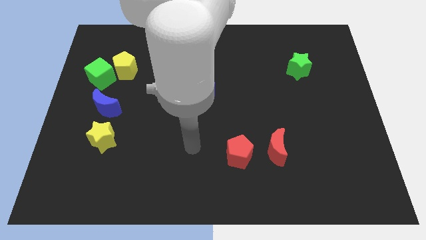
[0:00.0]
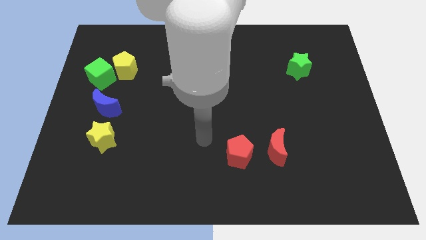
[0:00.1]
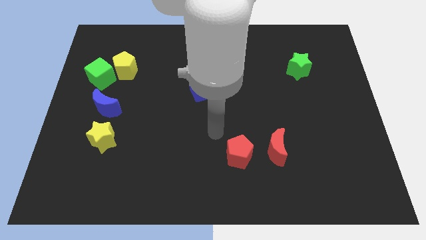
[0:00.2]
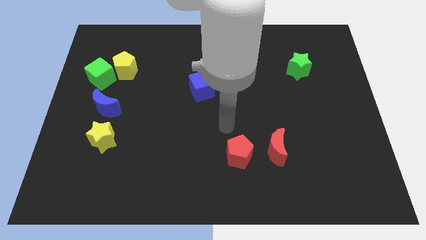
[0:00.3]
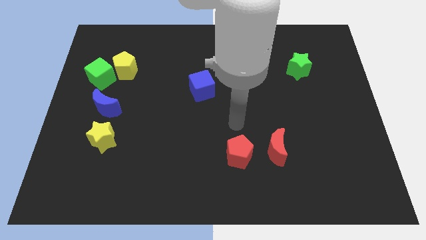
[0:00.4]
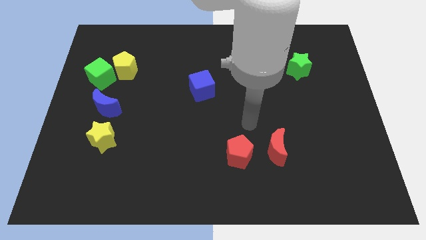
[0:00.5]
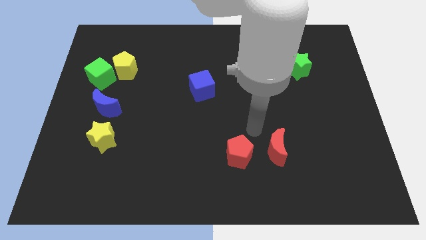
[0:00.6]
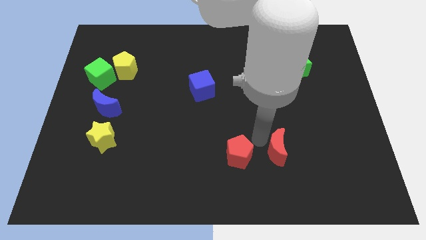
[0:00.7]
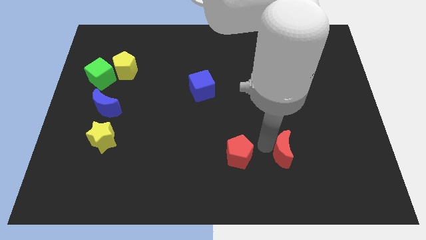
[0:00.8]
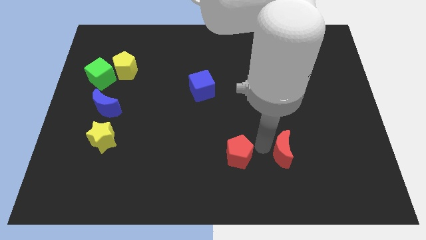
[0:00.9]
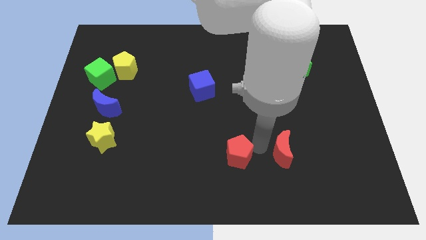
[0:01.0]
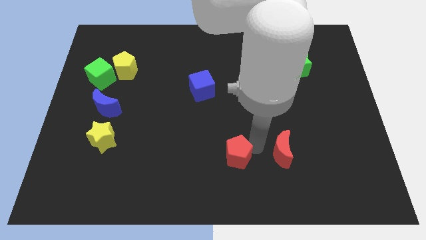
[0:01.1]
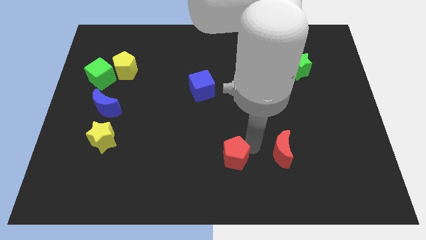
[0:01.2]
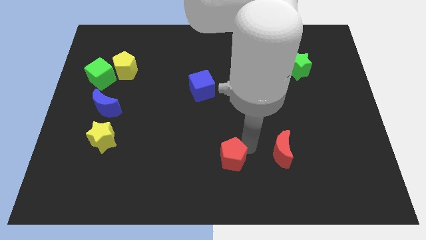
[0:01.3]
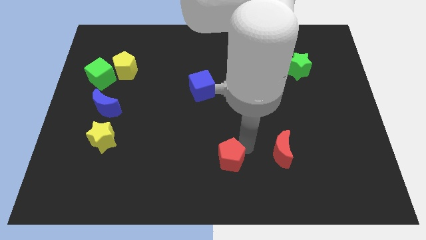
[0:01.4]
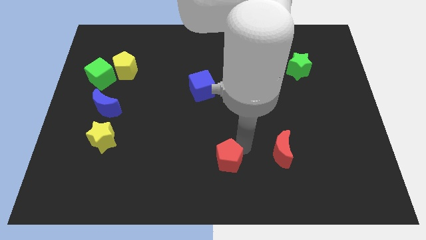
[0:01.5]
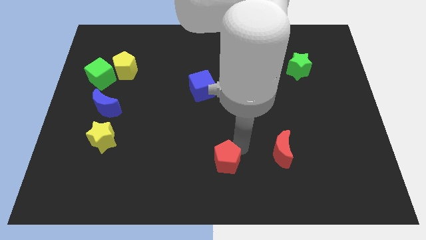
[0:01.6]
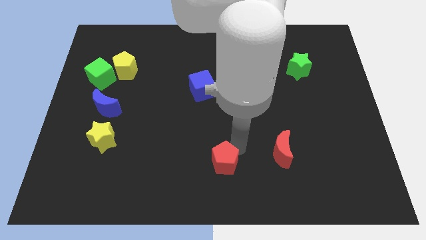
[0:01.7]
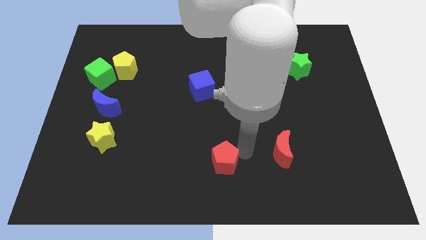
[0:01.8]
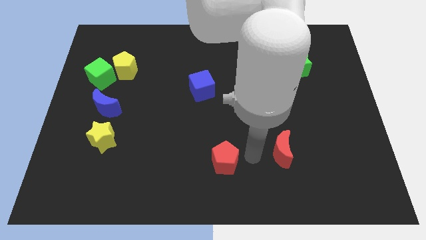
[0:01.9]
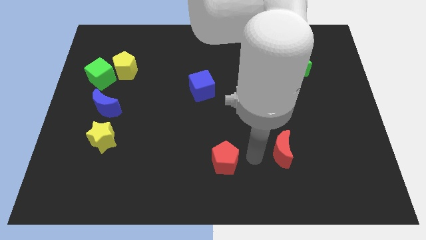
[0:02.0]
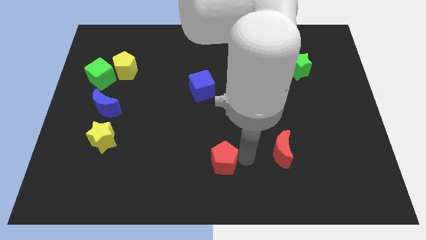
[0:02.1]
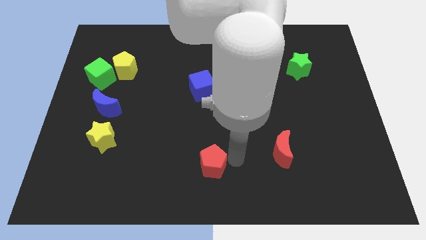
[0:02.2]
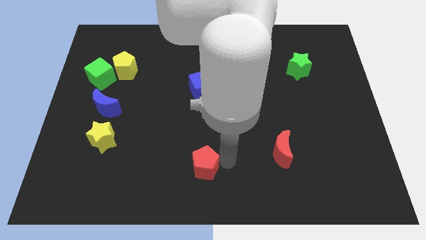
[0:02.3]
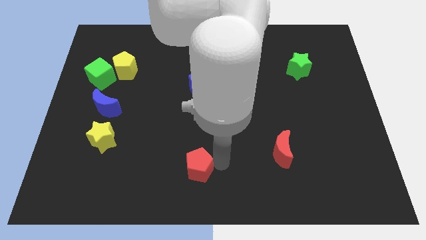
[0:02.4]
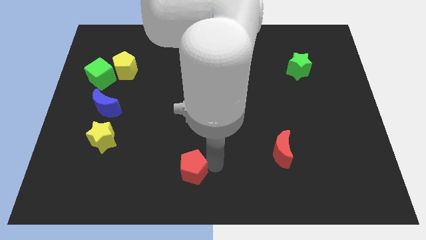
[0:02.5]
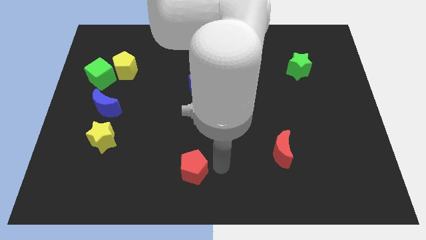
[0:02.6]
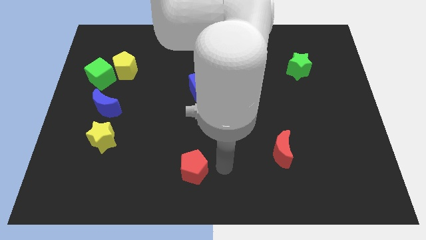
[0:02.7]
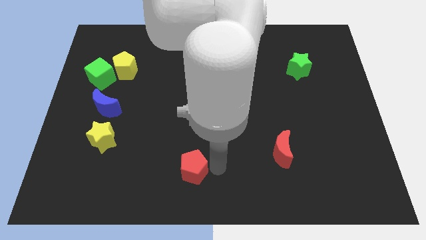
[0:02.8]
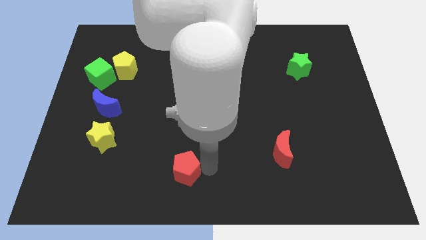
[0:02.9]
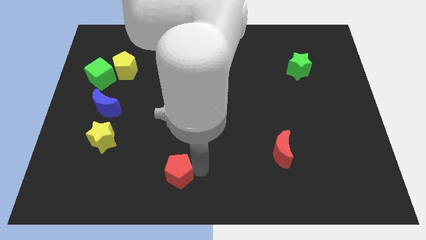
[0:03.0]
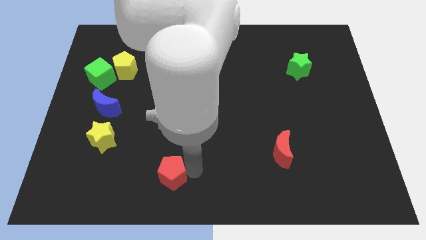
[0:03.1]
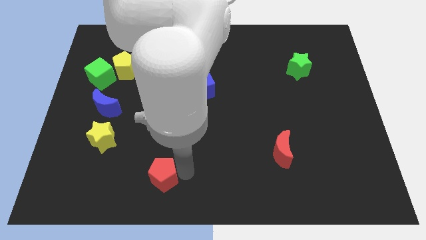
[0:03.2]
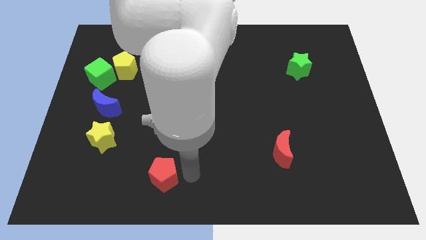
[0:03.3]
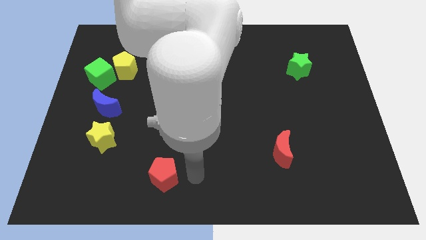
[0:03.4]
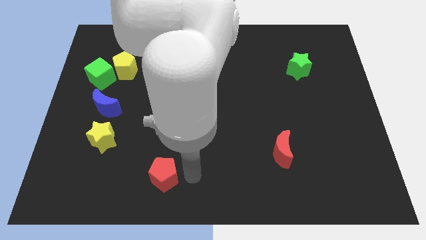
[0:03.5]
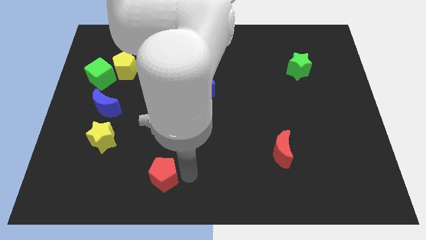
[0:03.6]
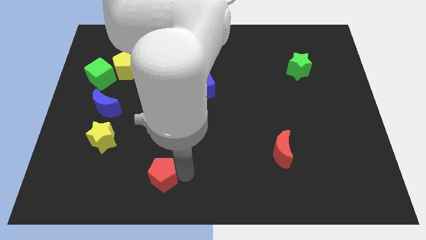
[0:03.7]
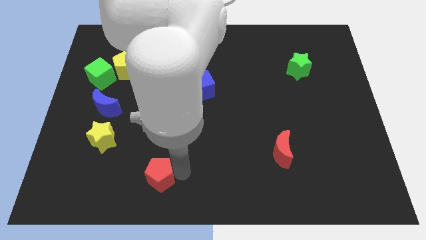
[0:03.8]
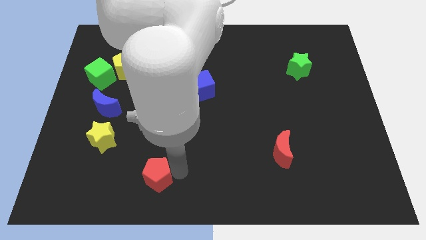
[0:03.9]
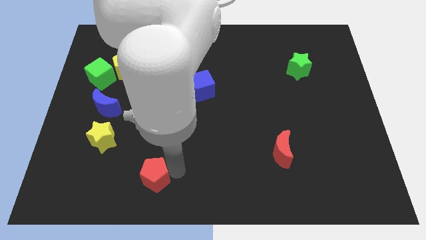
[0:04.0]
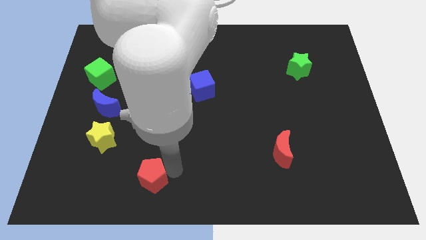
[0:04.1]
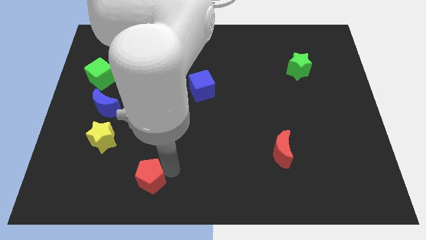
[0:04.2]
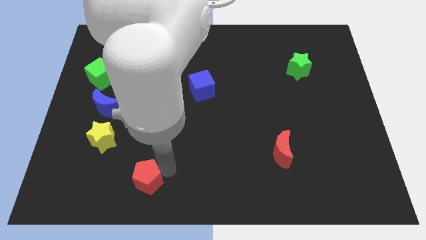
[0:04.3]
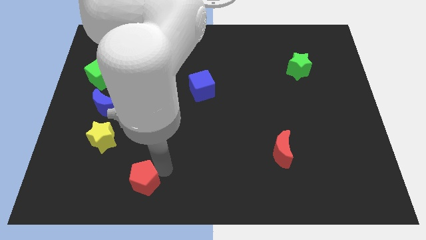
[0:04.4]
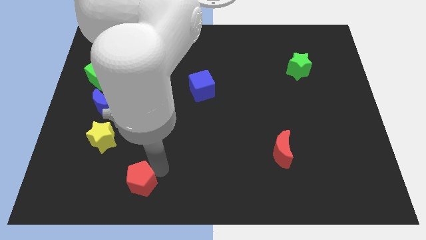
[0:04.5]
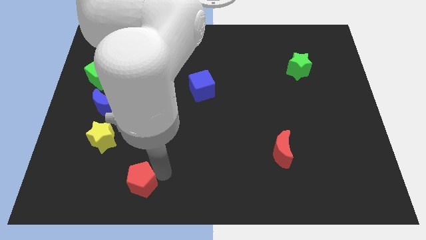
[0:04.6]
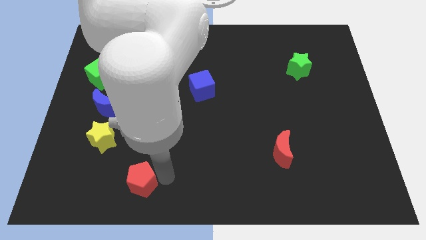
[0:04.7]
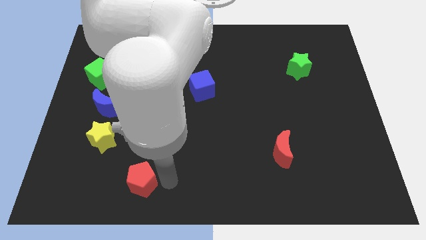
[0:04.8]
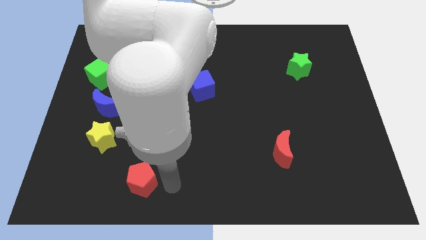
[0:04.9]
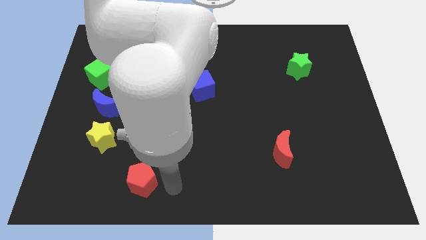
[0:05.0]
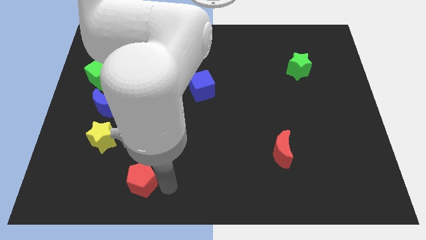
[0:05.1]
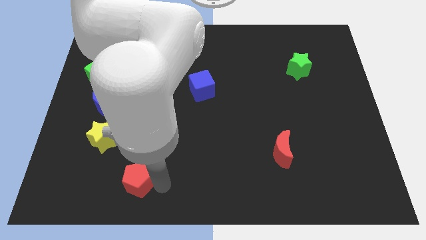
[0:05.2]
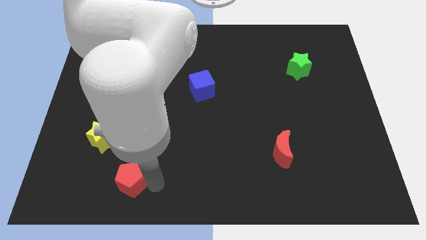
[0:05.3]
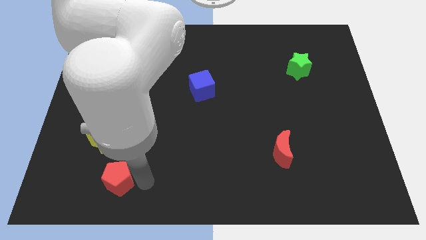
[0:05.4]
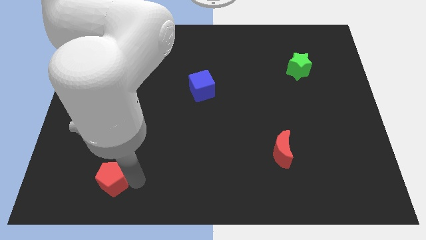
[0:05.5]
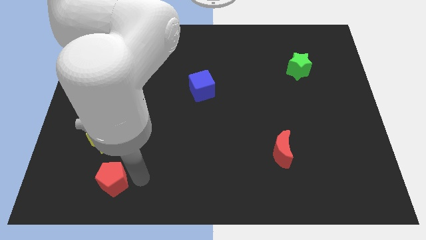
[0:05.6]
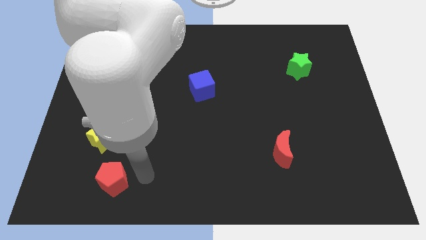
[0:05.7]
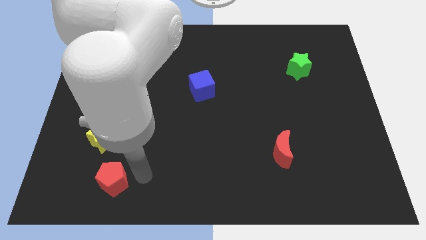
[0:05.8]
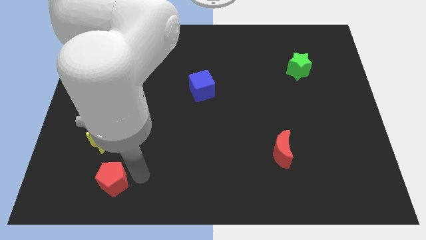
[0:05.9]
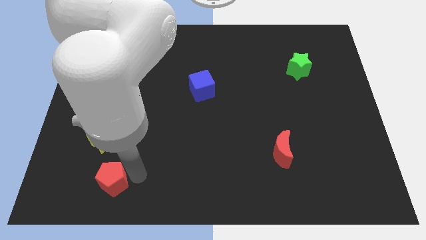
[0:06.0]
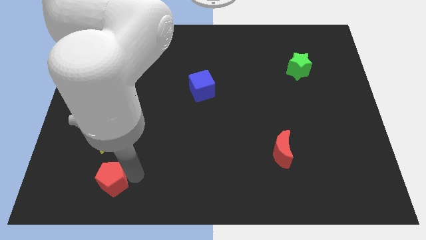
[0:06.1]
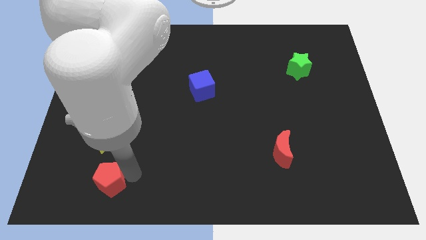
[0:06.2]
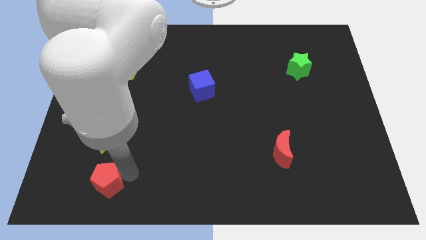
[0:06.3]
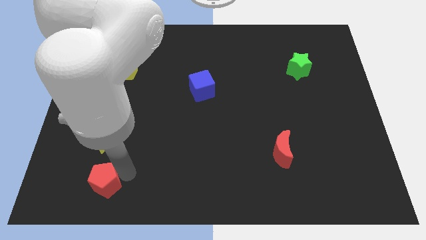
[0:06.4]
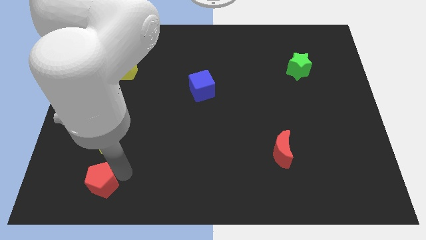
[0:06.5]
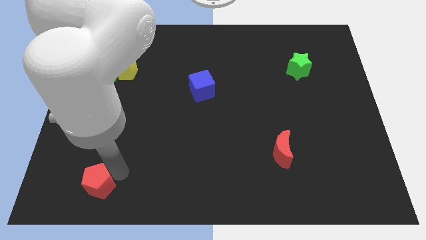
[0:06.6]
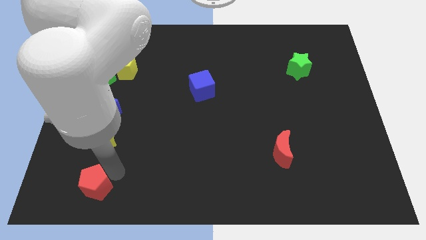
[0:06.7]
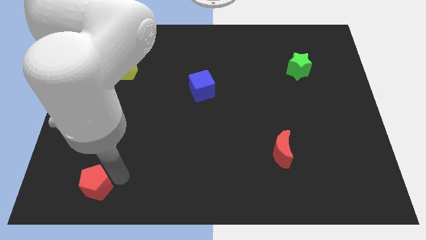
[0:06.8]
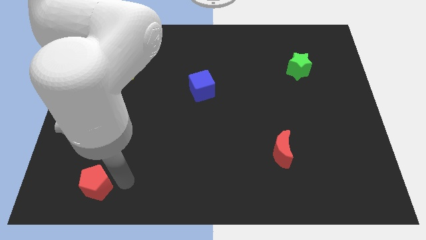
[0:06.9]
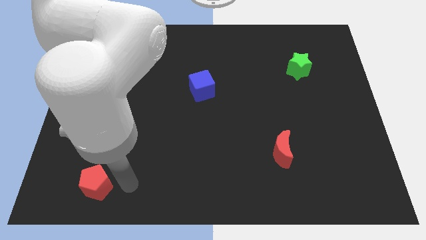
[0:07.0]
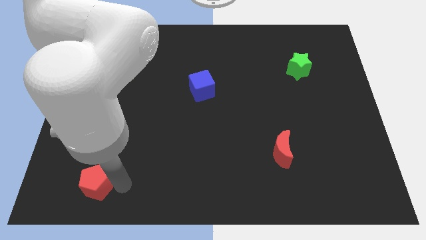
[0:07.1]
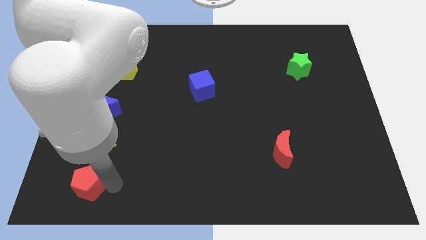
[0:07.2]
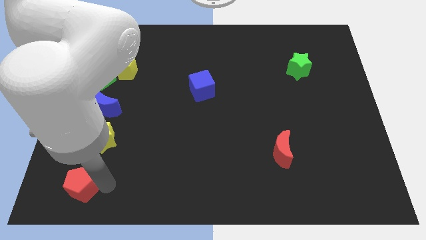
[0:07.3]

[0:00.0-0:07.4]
move the red pentagon to the bottom left corner
